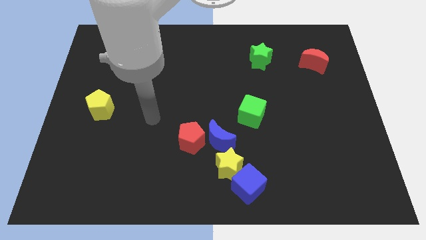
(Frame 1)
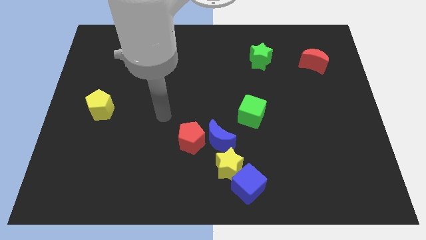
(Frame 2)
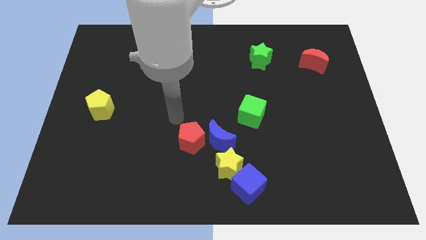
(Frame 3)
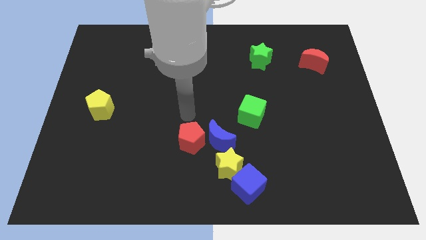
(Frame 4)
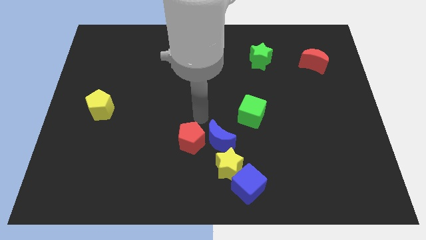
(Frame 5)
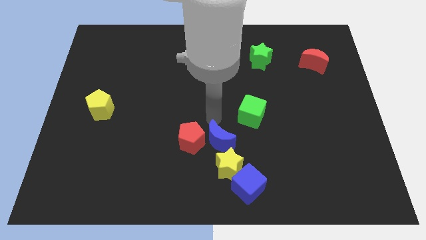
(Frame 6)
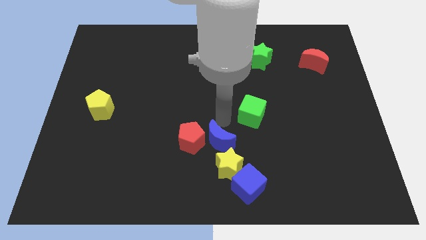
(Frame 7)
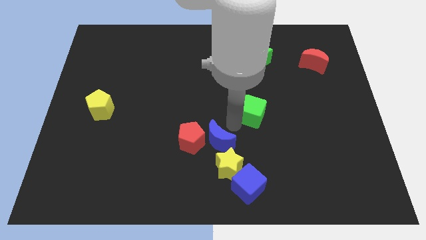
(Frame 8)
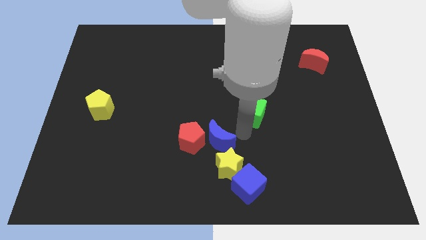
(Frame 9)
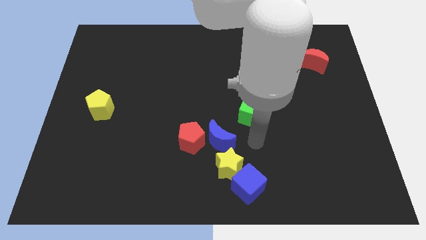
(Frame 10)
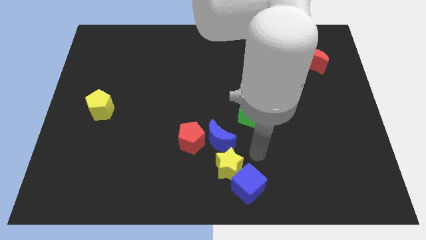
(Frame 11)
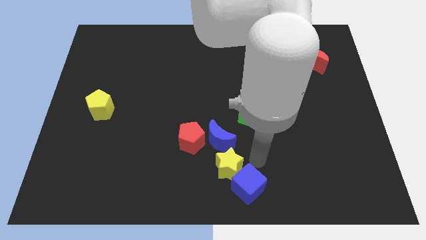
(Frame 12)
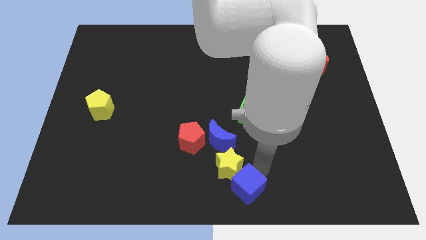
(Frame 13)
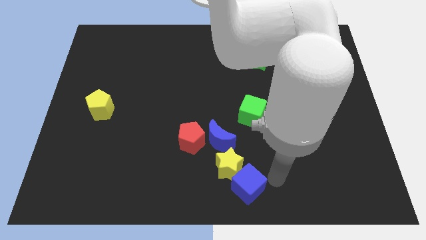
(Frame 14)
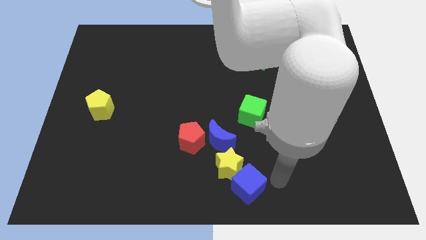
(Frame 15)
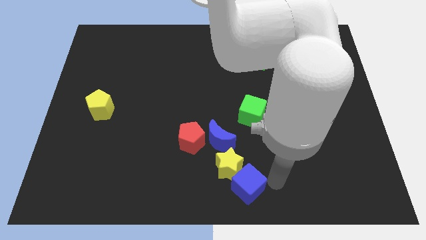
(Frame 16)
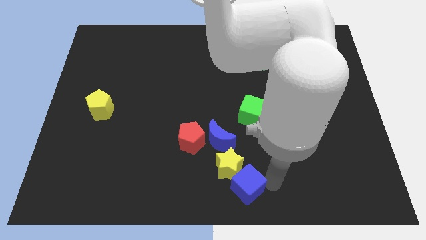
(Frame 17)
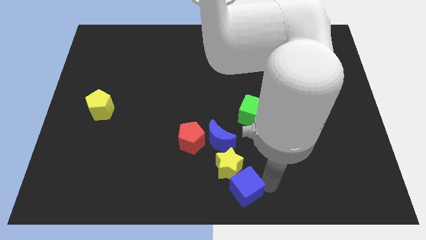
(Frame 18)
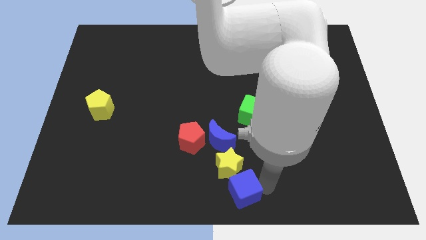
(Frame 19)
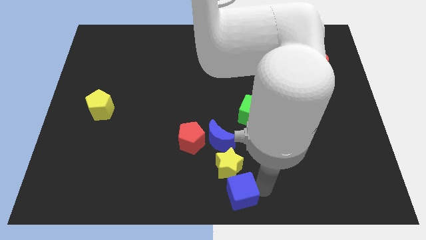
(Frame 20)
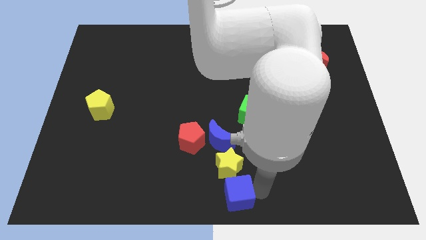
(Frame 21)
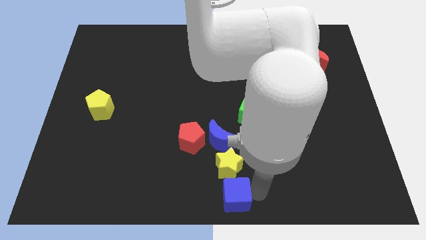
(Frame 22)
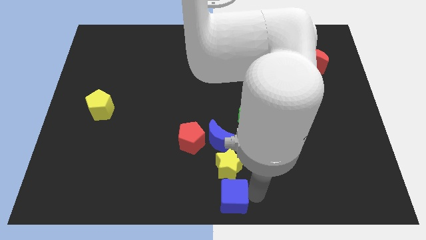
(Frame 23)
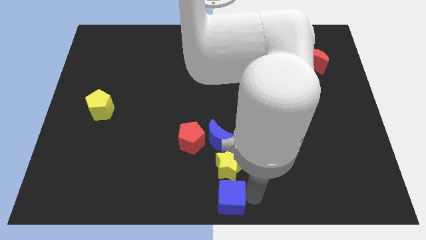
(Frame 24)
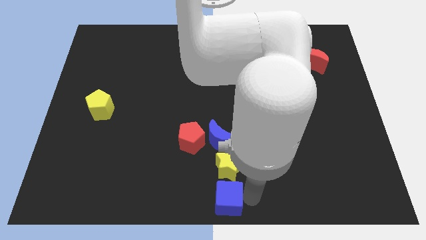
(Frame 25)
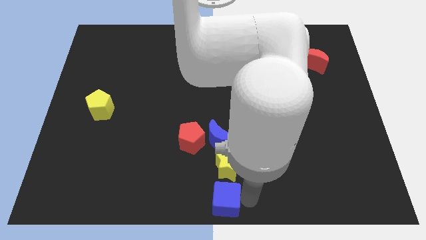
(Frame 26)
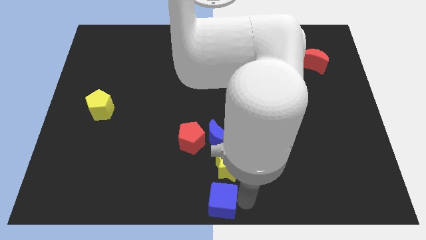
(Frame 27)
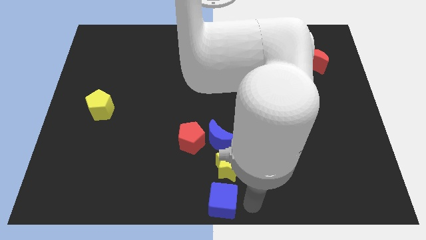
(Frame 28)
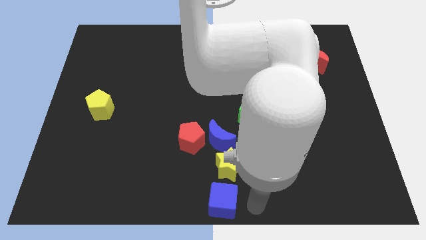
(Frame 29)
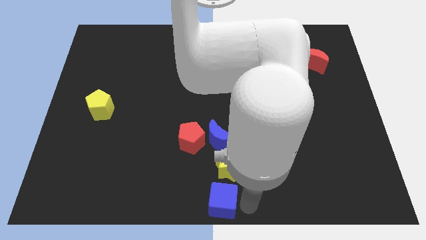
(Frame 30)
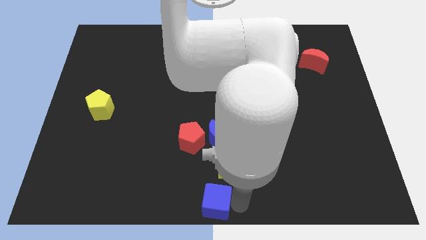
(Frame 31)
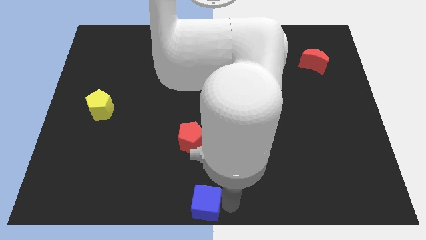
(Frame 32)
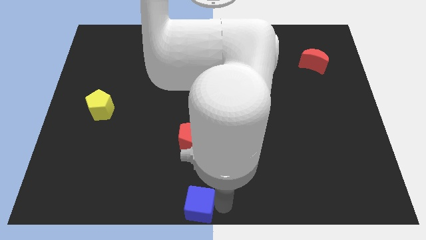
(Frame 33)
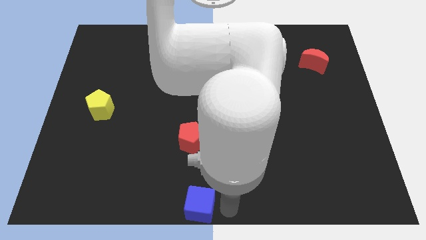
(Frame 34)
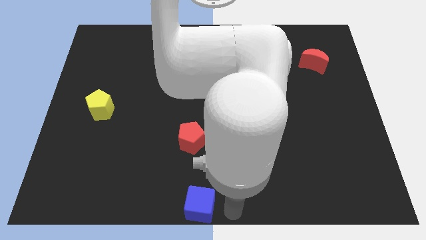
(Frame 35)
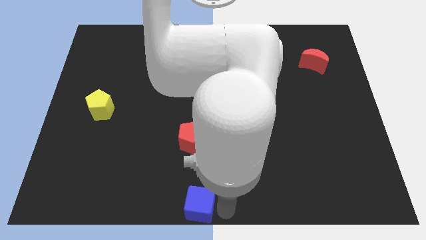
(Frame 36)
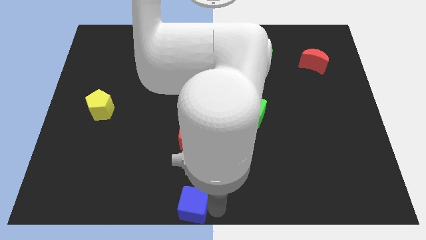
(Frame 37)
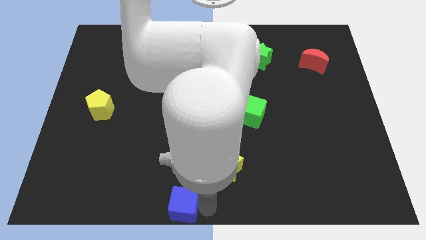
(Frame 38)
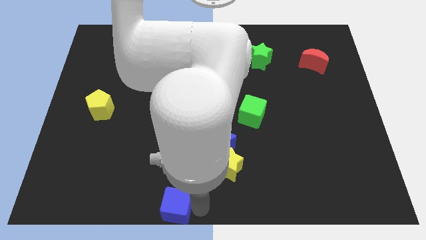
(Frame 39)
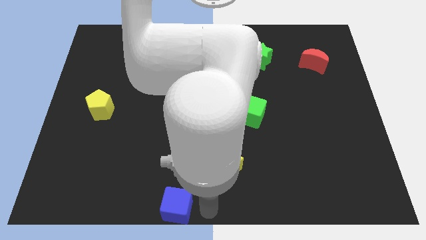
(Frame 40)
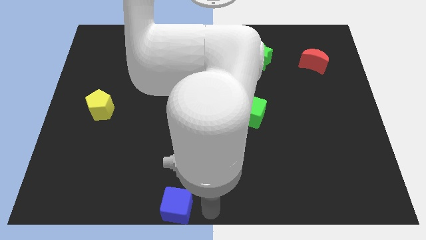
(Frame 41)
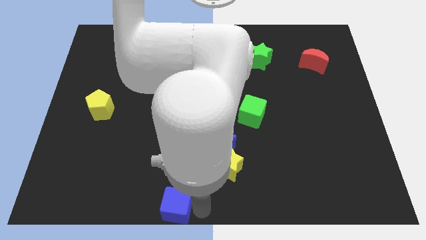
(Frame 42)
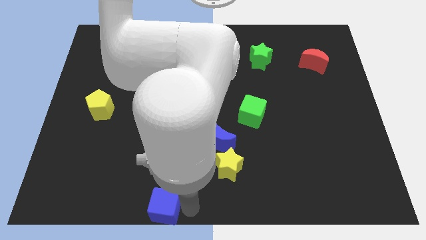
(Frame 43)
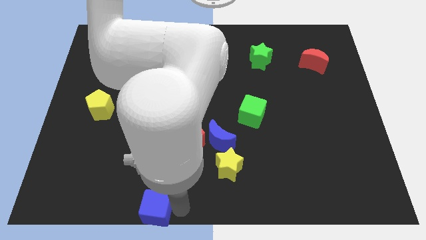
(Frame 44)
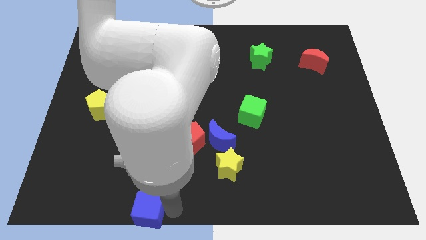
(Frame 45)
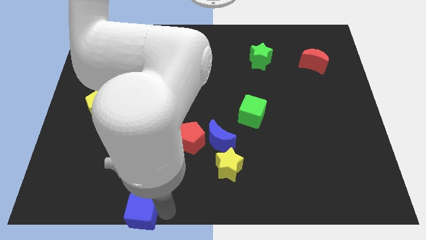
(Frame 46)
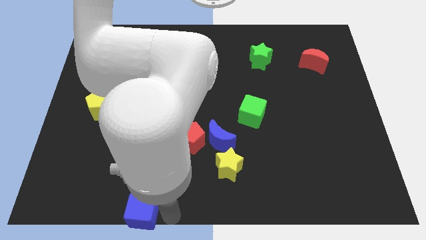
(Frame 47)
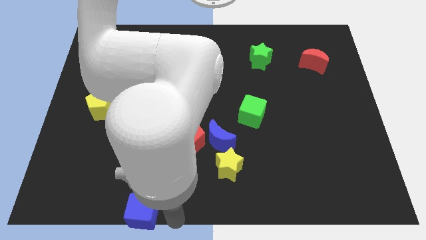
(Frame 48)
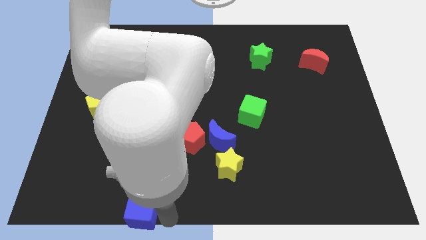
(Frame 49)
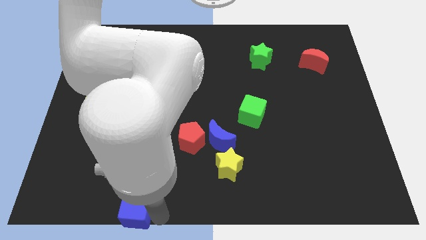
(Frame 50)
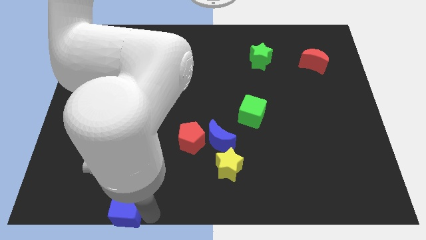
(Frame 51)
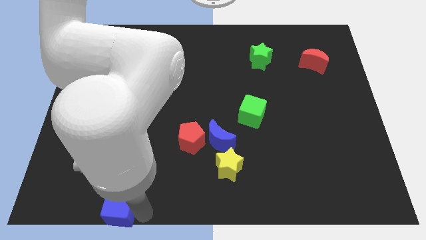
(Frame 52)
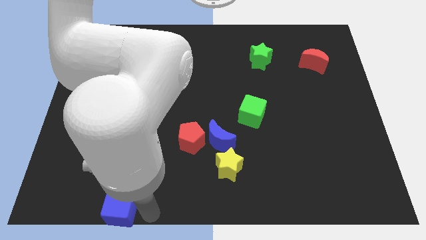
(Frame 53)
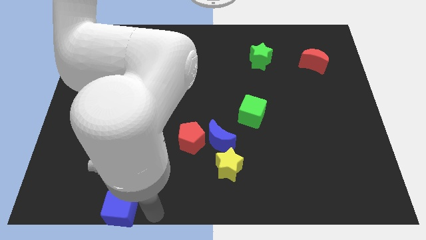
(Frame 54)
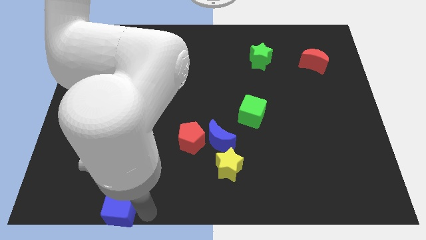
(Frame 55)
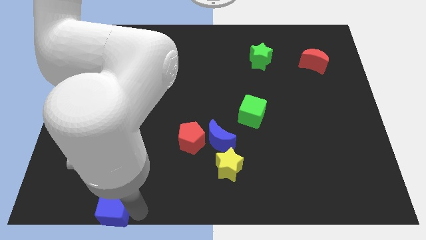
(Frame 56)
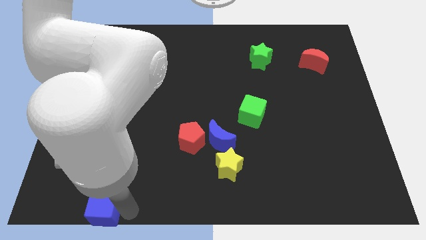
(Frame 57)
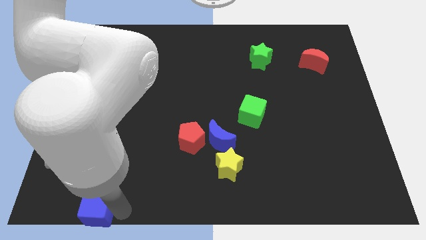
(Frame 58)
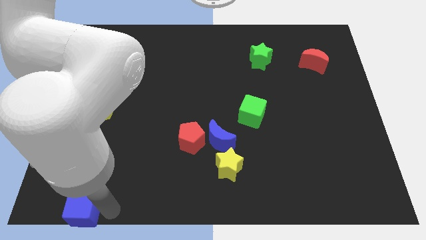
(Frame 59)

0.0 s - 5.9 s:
move the blue cube to the bottom left corner
